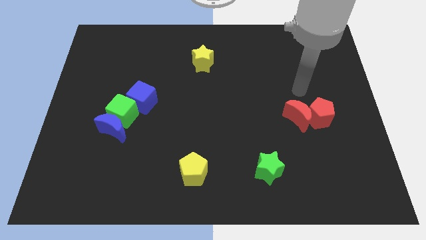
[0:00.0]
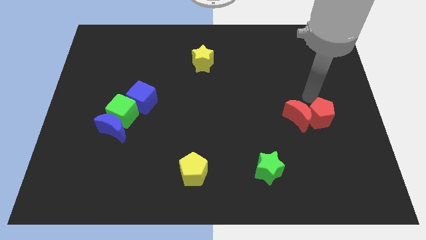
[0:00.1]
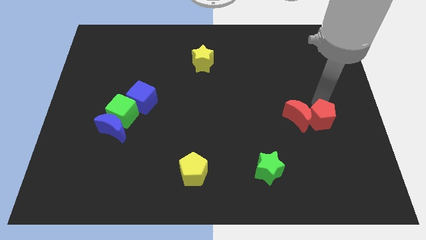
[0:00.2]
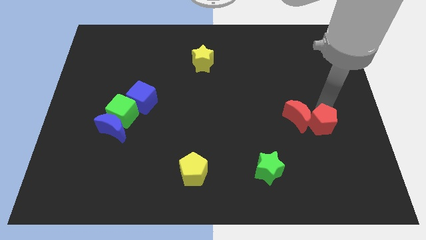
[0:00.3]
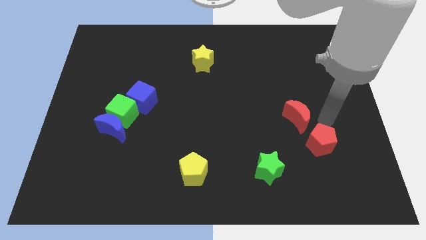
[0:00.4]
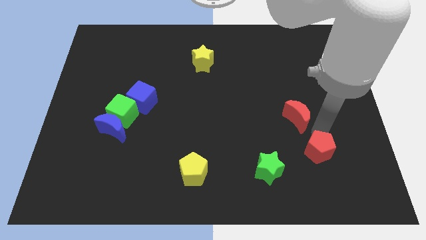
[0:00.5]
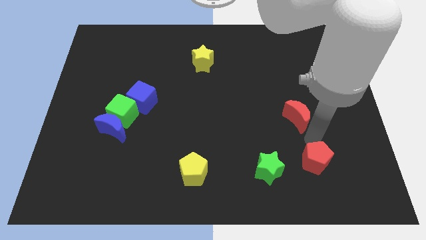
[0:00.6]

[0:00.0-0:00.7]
move the red moon away from the red pentagon

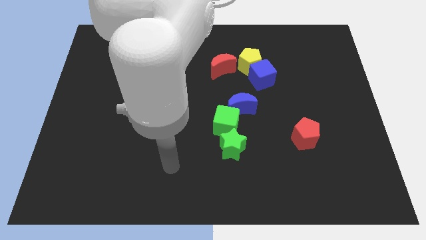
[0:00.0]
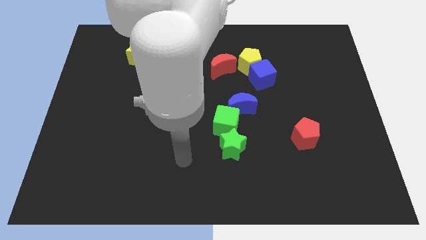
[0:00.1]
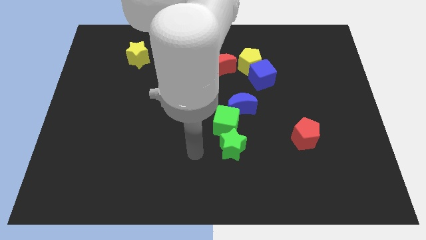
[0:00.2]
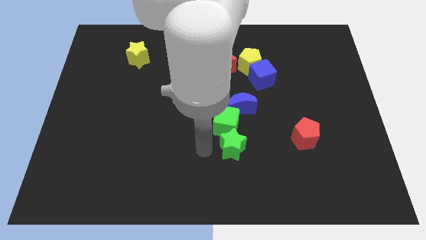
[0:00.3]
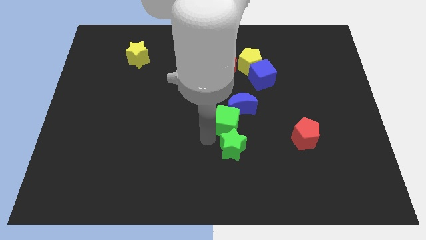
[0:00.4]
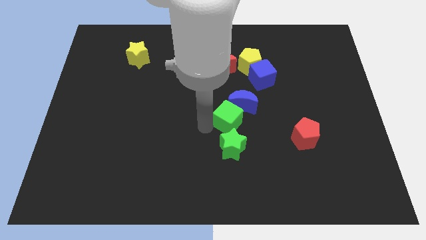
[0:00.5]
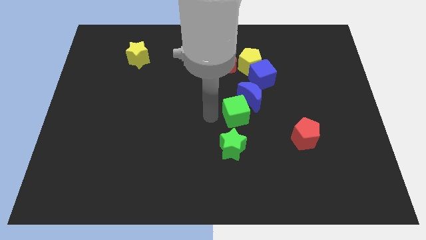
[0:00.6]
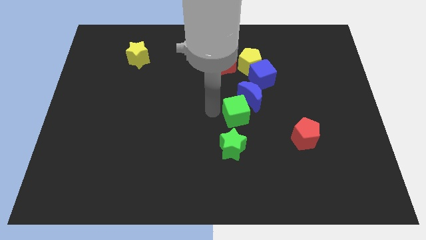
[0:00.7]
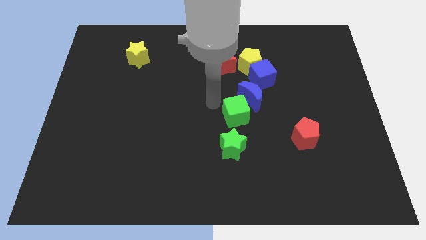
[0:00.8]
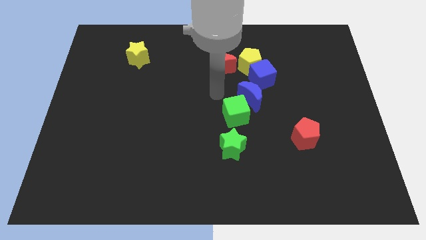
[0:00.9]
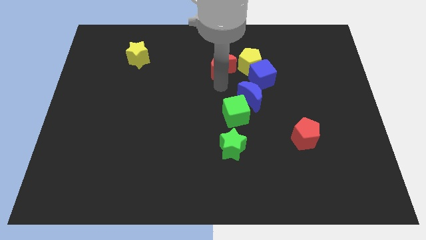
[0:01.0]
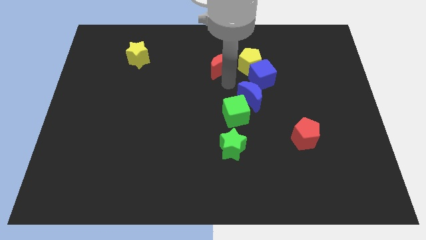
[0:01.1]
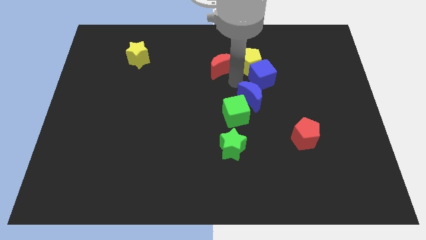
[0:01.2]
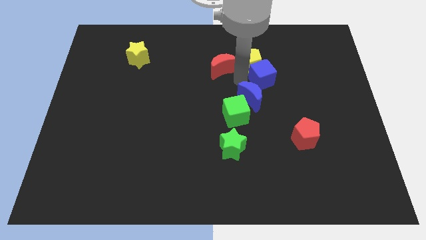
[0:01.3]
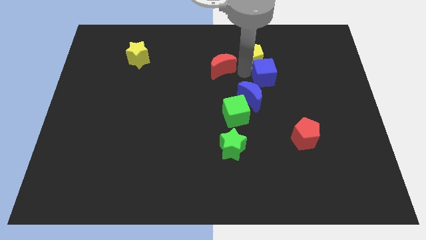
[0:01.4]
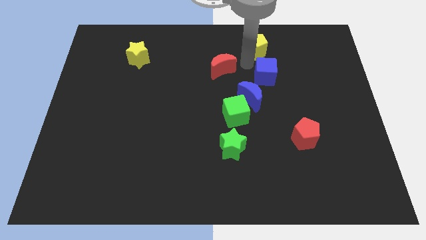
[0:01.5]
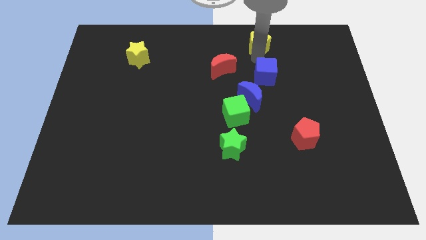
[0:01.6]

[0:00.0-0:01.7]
move the blue cube away from the yellow pentagon

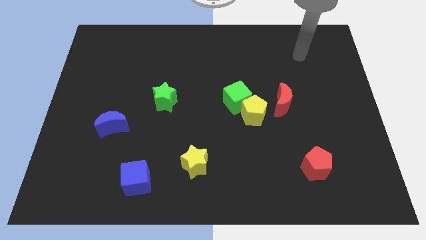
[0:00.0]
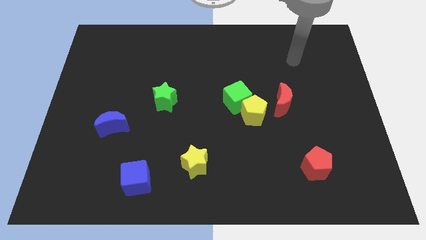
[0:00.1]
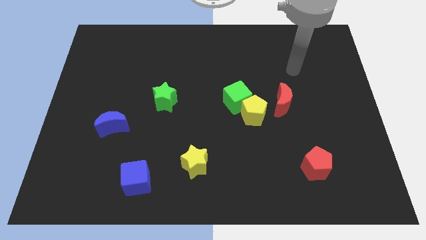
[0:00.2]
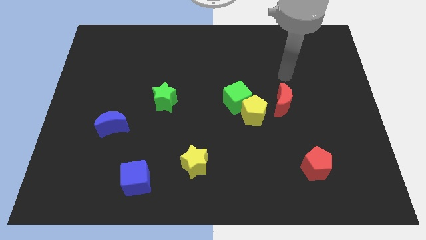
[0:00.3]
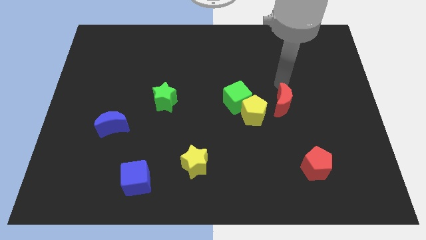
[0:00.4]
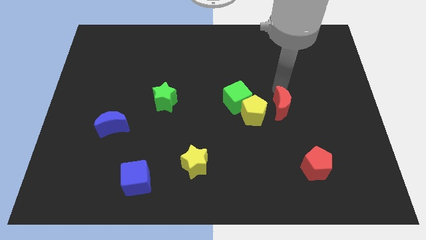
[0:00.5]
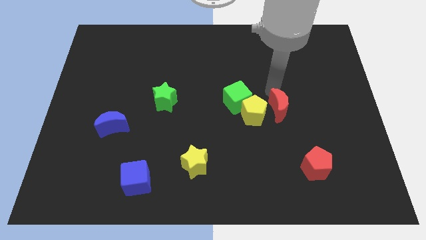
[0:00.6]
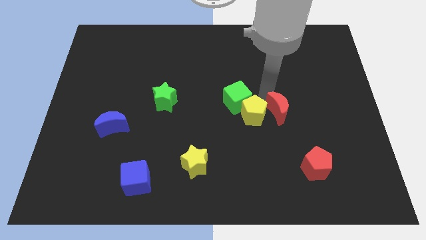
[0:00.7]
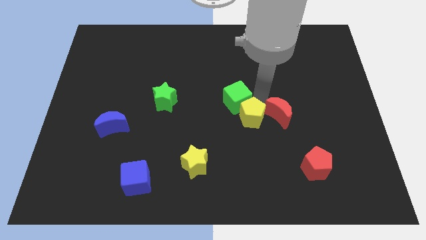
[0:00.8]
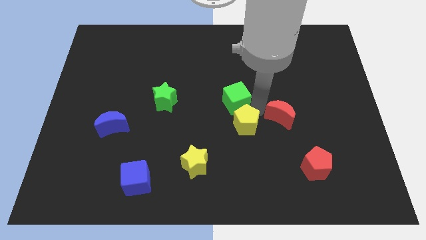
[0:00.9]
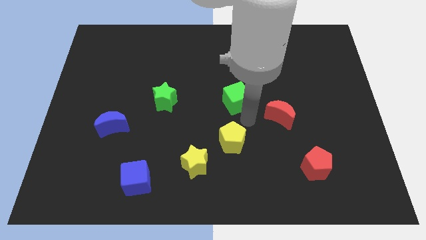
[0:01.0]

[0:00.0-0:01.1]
move the green cube away from the yellow pentagon

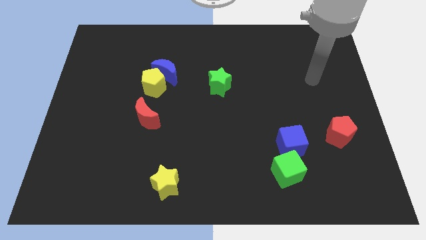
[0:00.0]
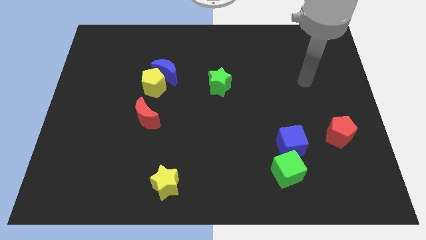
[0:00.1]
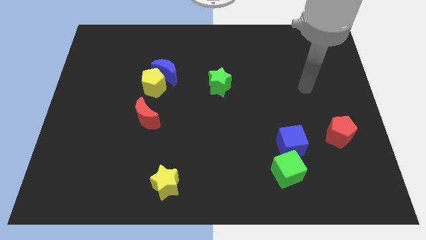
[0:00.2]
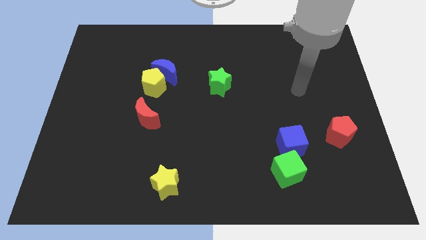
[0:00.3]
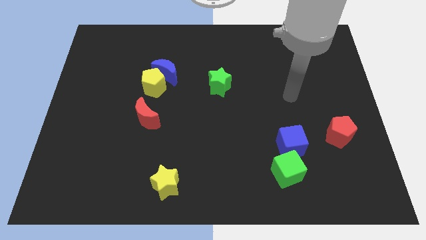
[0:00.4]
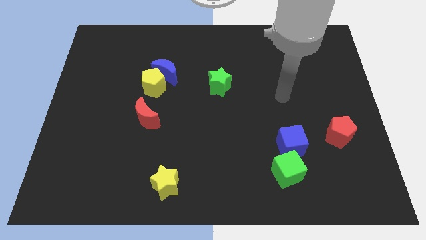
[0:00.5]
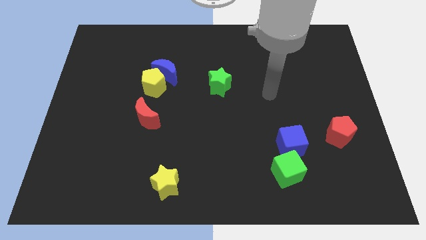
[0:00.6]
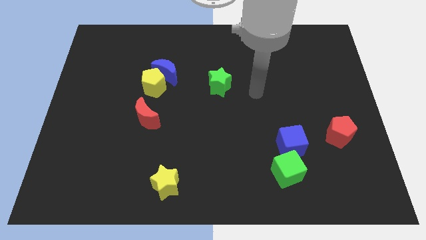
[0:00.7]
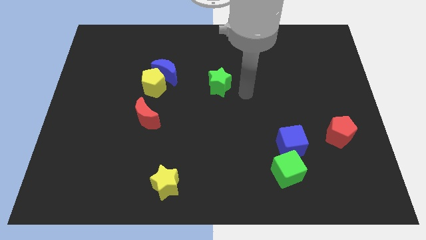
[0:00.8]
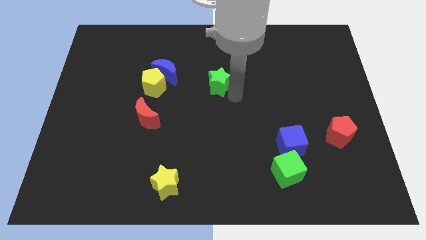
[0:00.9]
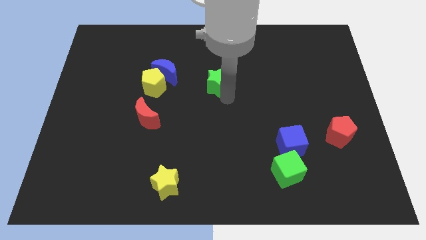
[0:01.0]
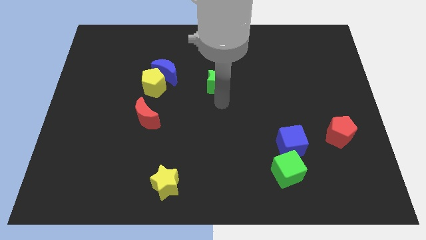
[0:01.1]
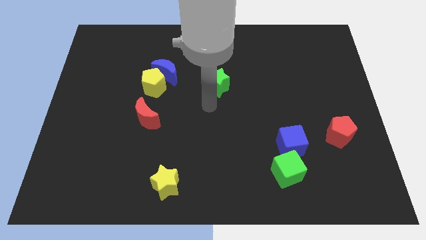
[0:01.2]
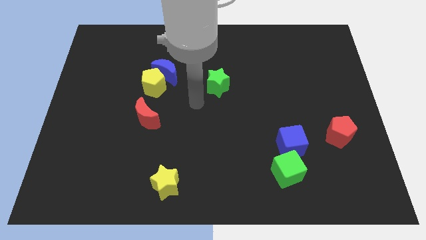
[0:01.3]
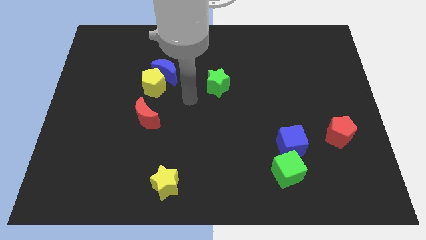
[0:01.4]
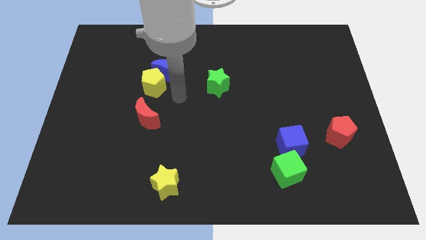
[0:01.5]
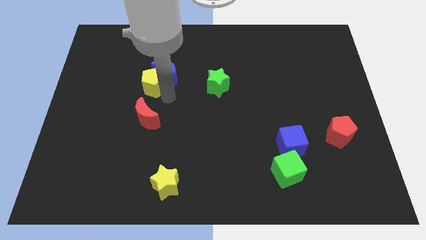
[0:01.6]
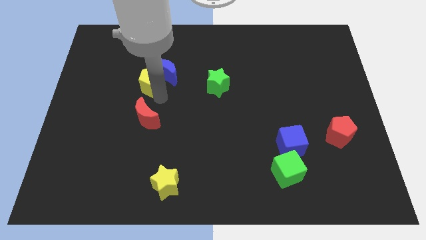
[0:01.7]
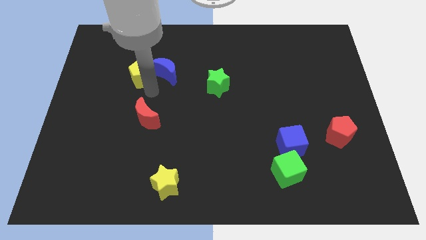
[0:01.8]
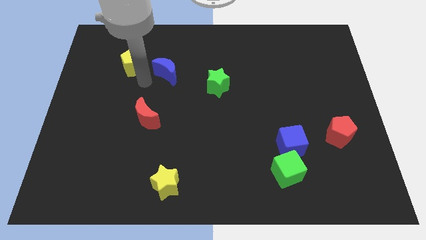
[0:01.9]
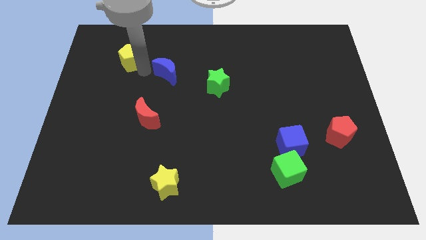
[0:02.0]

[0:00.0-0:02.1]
move the blue moon away from the yellow pentagon

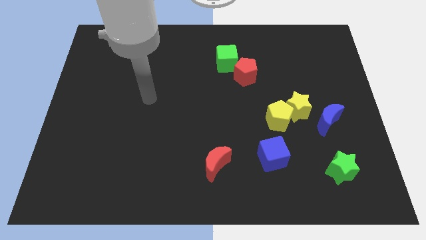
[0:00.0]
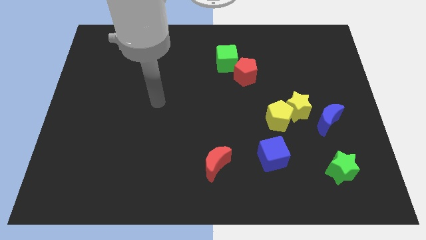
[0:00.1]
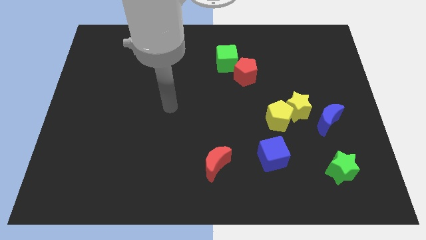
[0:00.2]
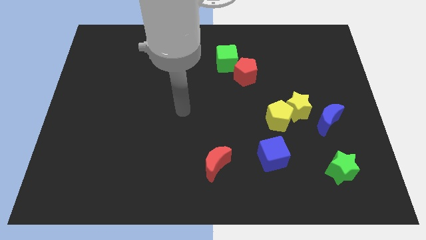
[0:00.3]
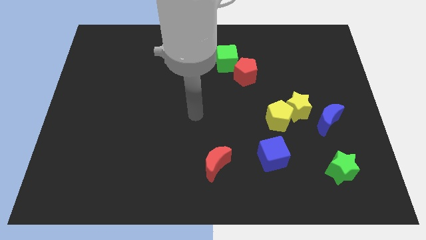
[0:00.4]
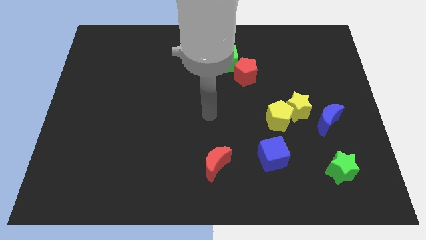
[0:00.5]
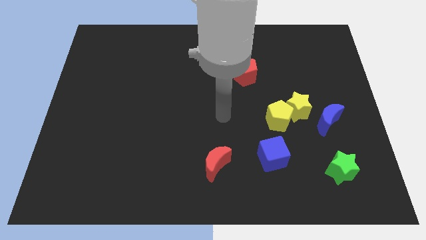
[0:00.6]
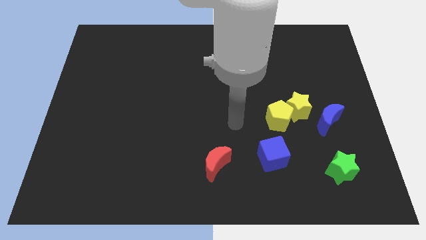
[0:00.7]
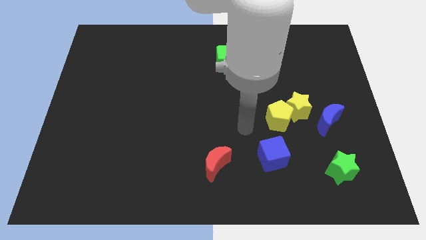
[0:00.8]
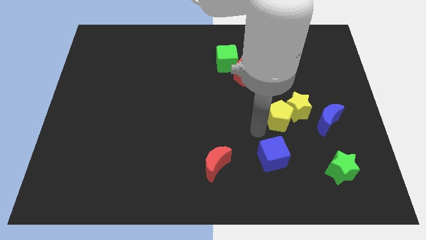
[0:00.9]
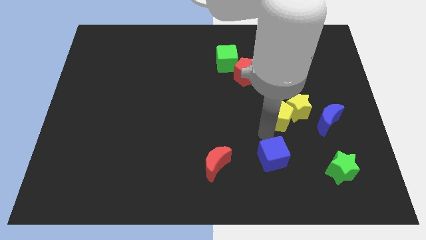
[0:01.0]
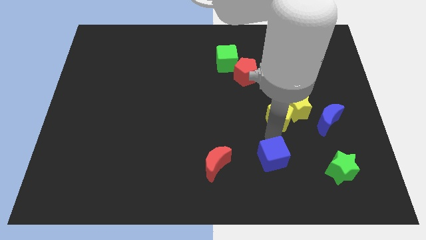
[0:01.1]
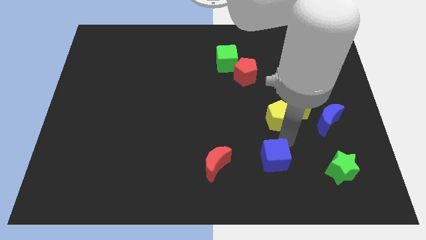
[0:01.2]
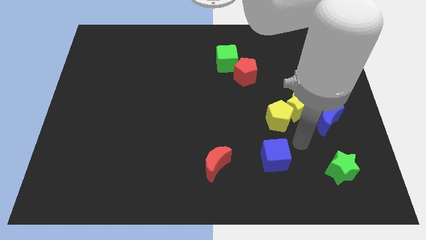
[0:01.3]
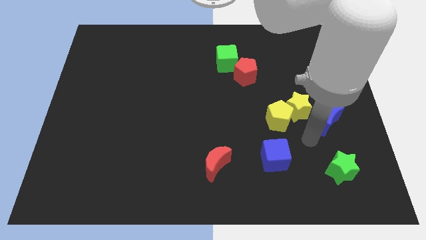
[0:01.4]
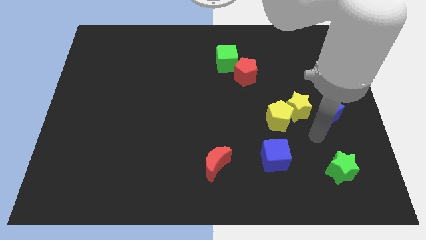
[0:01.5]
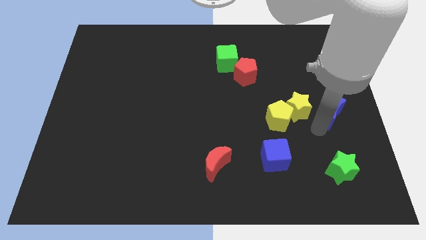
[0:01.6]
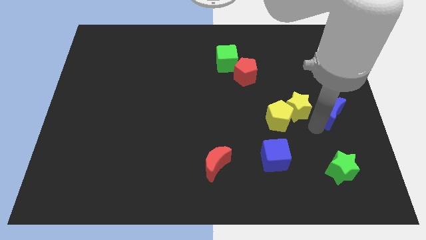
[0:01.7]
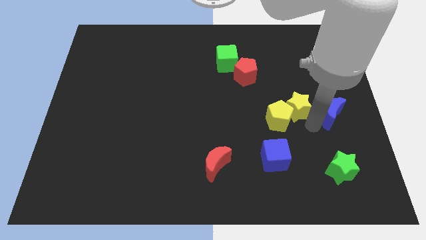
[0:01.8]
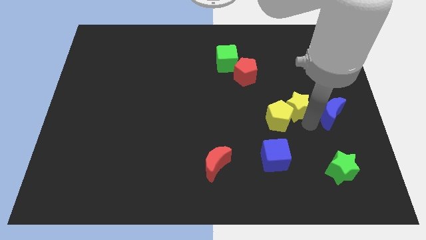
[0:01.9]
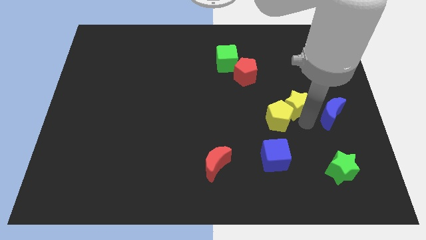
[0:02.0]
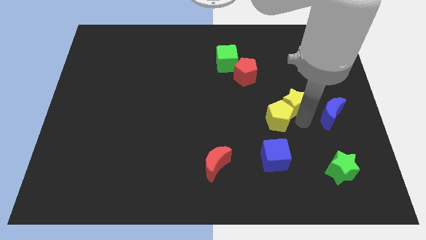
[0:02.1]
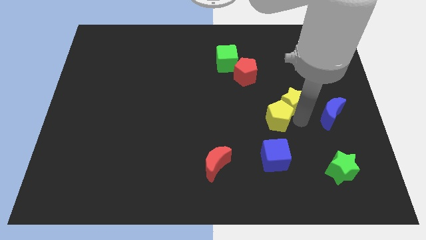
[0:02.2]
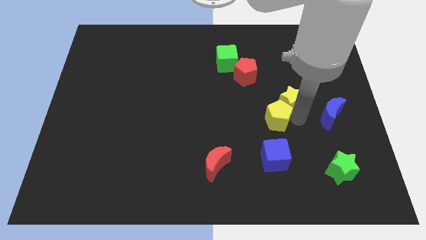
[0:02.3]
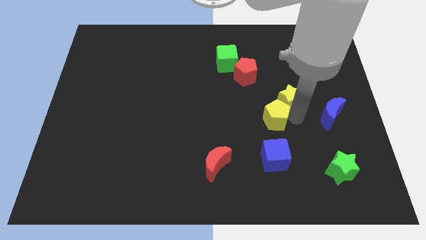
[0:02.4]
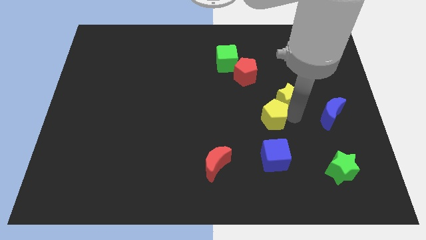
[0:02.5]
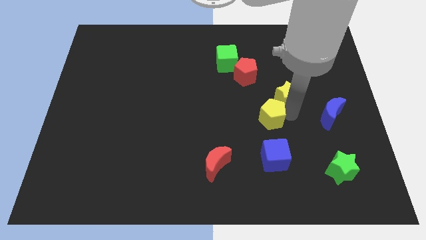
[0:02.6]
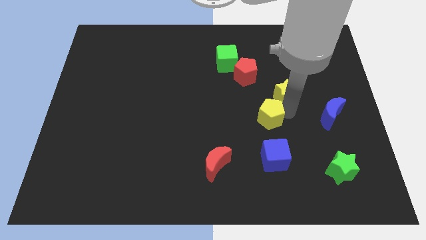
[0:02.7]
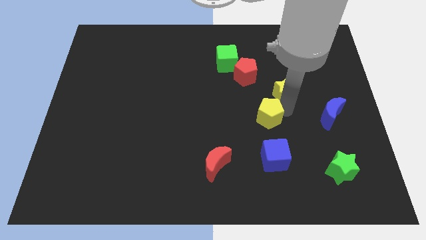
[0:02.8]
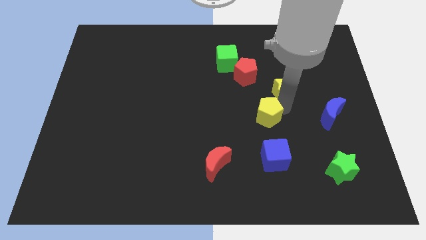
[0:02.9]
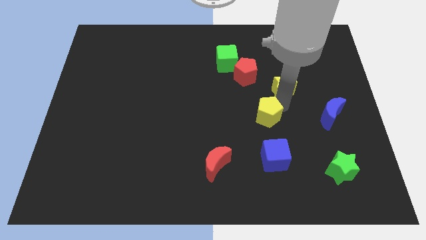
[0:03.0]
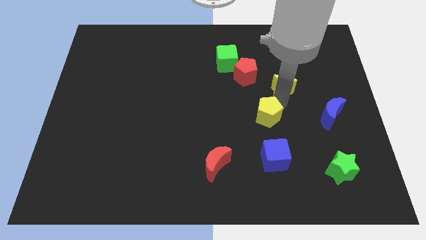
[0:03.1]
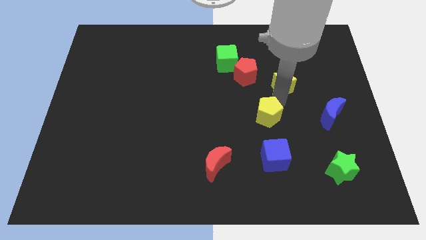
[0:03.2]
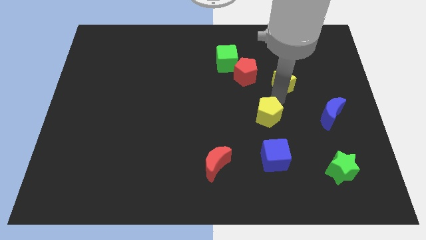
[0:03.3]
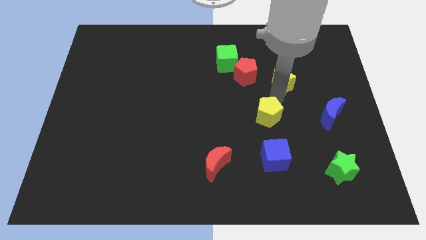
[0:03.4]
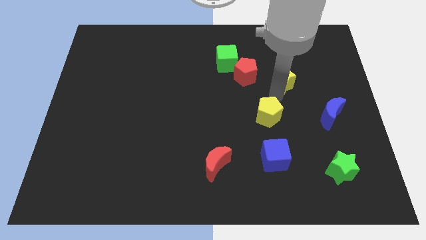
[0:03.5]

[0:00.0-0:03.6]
move the yellow star away from the yellow pentagon and blue moon

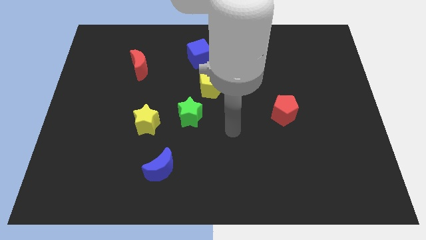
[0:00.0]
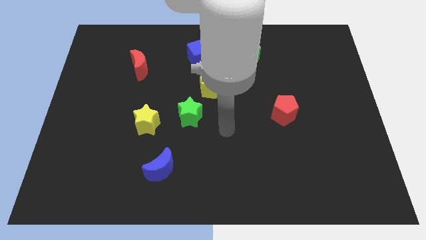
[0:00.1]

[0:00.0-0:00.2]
separate the yellow pentagon from the green star

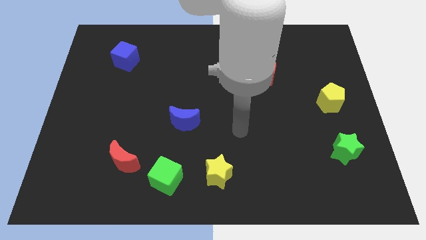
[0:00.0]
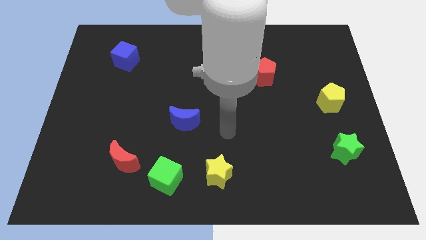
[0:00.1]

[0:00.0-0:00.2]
pull the red moon apart from the green cube
